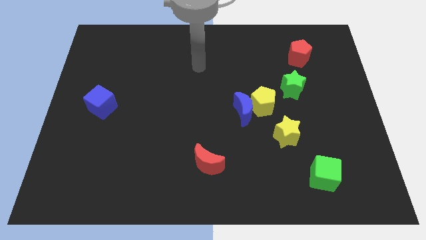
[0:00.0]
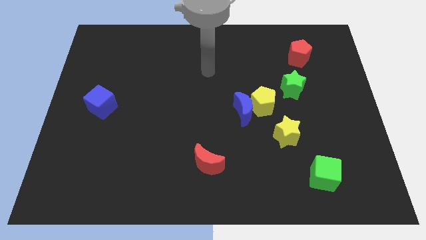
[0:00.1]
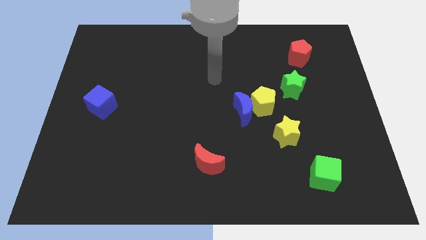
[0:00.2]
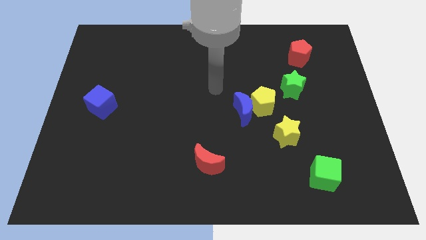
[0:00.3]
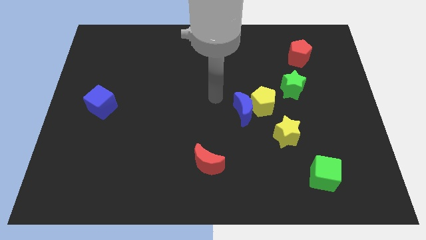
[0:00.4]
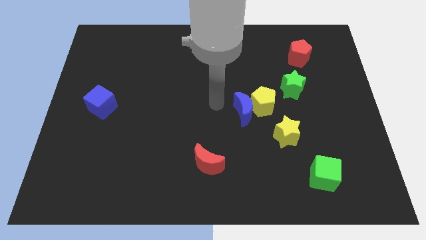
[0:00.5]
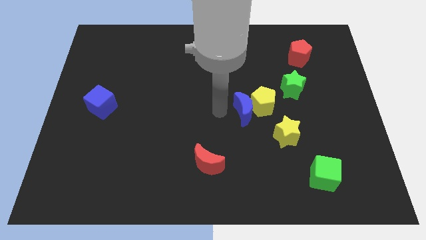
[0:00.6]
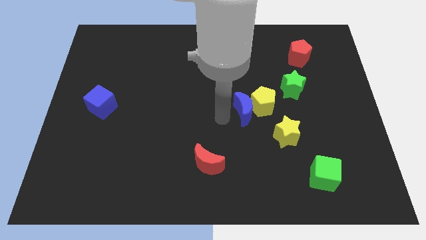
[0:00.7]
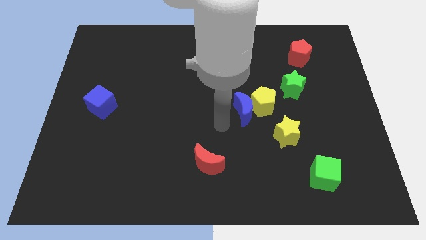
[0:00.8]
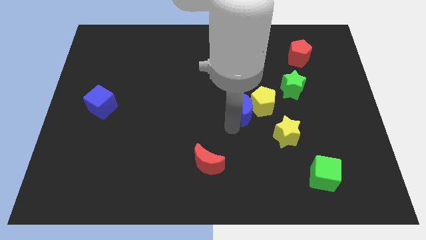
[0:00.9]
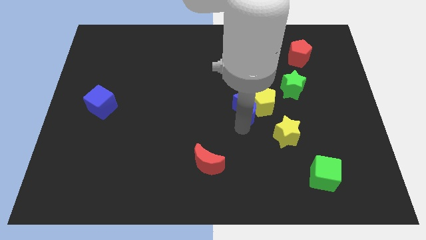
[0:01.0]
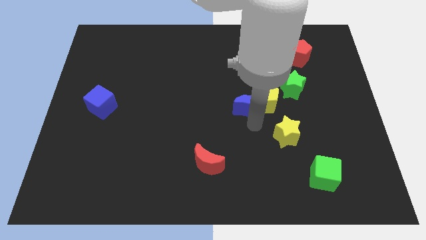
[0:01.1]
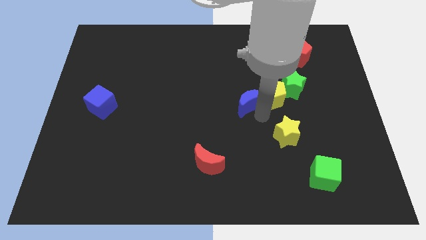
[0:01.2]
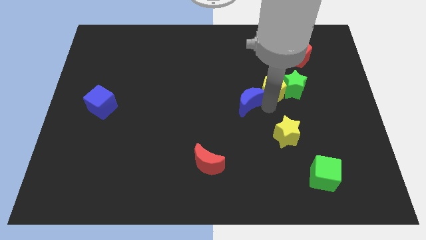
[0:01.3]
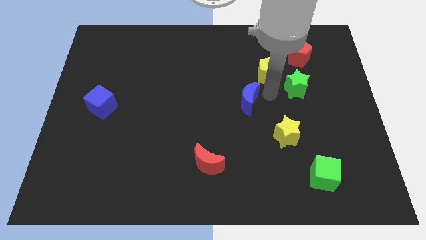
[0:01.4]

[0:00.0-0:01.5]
move the blue moon away from the yellow pentagon

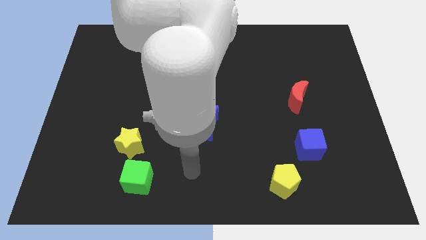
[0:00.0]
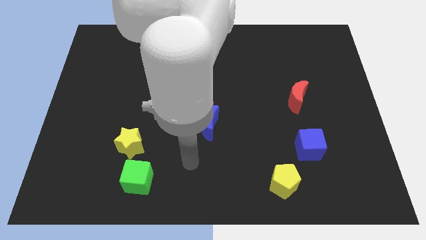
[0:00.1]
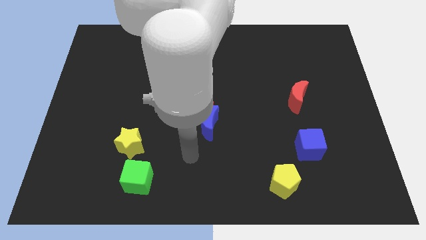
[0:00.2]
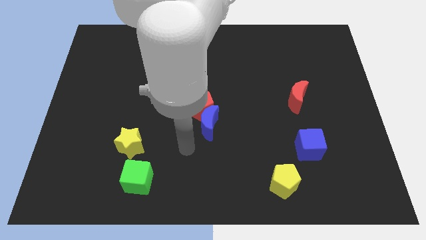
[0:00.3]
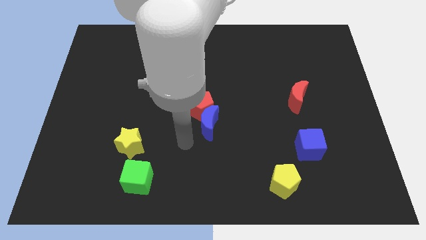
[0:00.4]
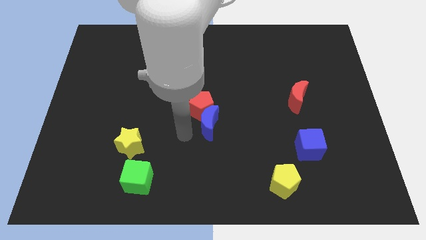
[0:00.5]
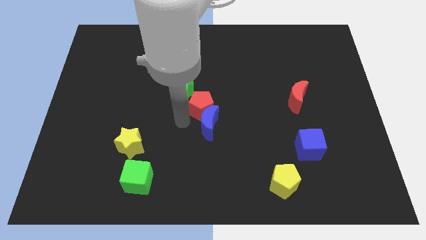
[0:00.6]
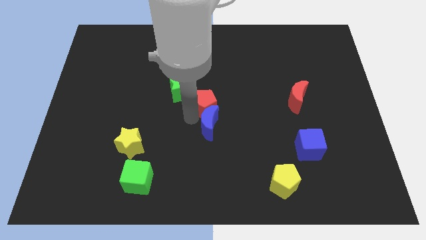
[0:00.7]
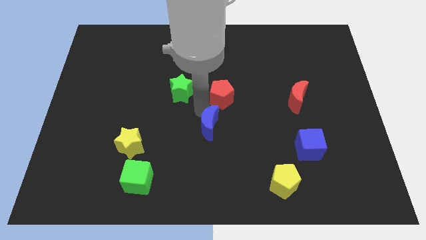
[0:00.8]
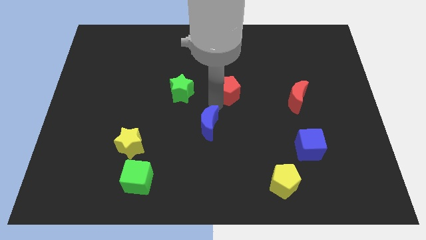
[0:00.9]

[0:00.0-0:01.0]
separate the blue moon from the red pentagon

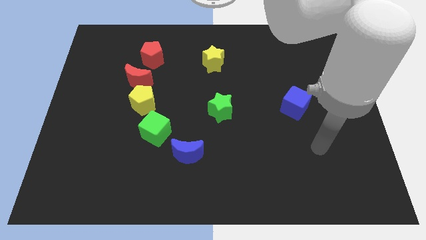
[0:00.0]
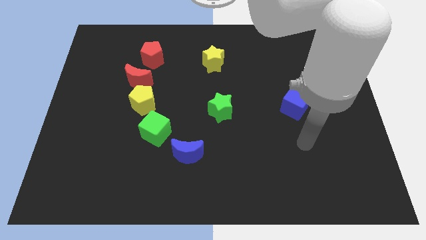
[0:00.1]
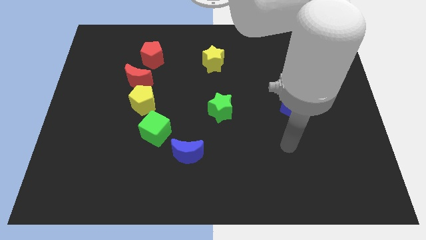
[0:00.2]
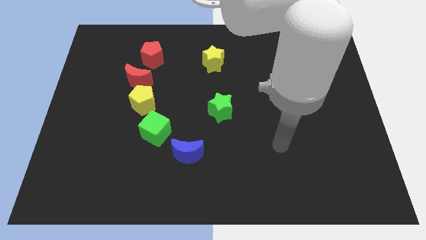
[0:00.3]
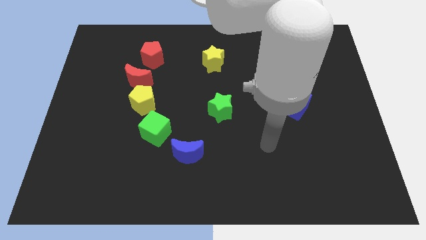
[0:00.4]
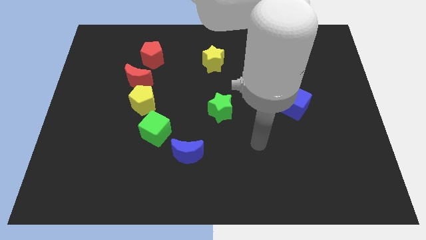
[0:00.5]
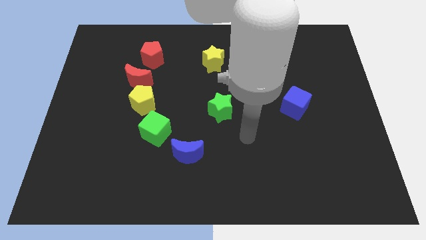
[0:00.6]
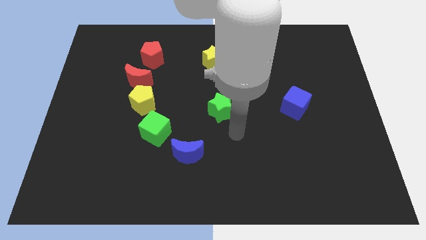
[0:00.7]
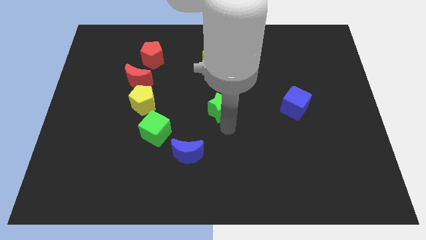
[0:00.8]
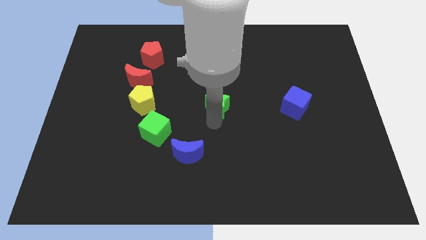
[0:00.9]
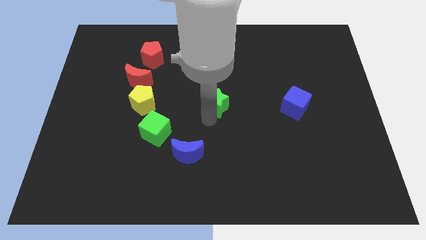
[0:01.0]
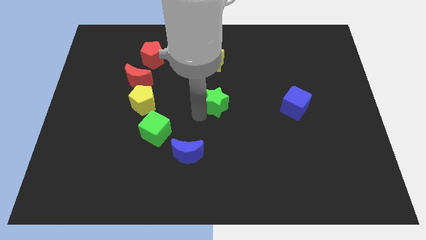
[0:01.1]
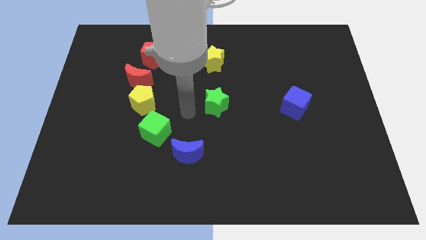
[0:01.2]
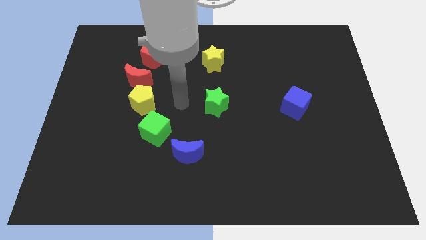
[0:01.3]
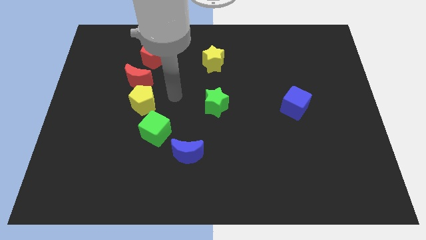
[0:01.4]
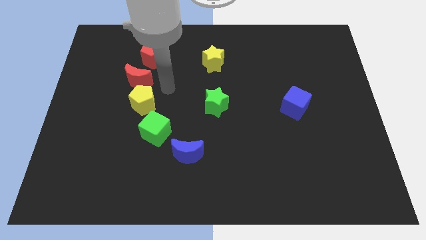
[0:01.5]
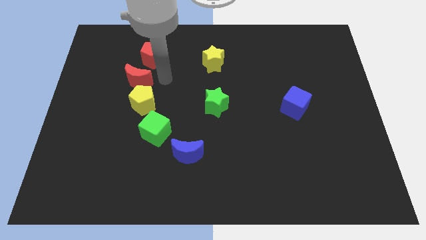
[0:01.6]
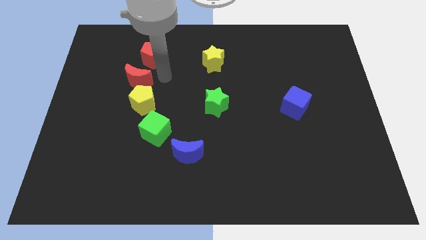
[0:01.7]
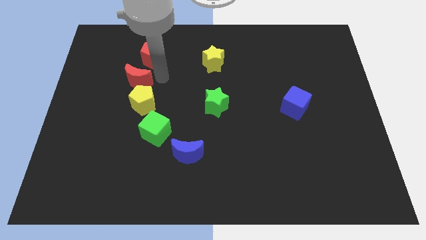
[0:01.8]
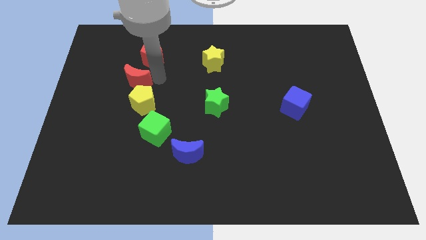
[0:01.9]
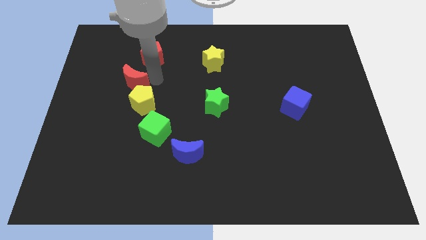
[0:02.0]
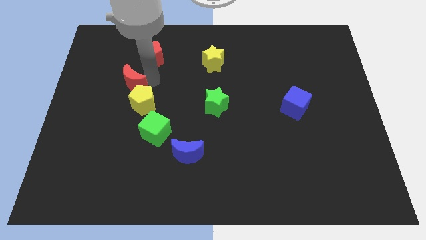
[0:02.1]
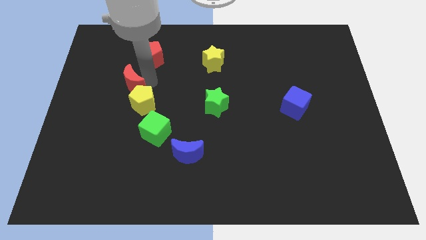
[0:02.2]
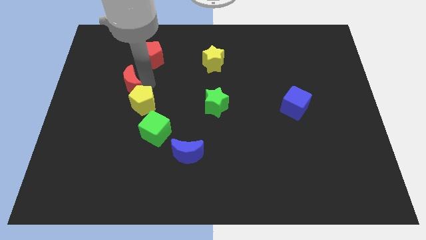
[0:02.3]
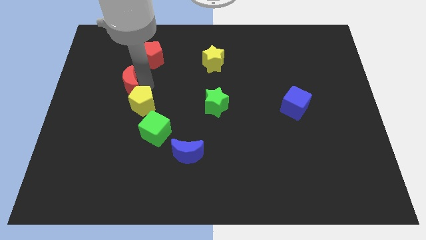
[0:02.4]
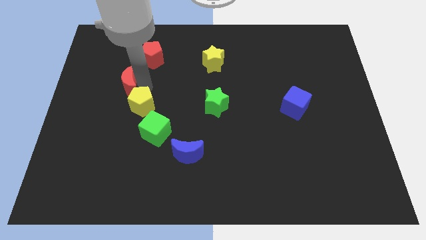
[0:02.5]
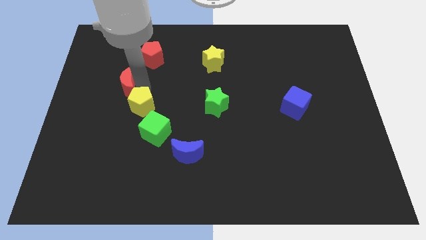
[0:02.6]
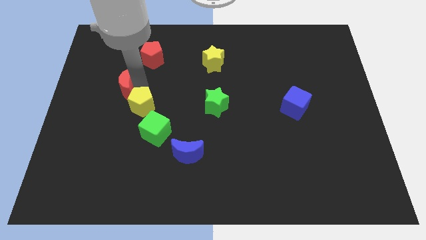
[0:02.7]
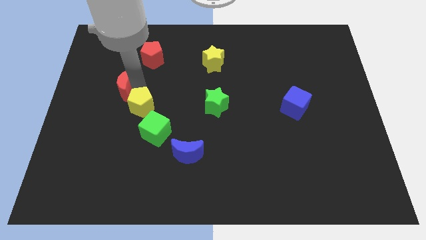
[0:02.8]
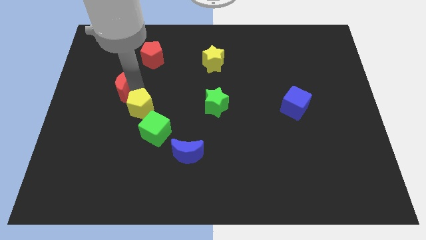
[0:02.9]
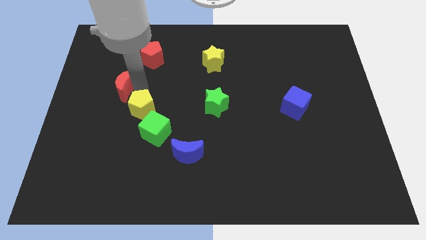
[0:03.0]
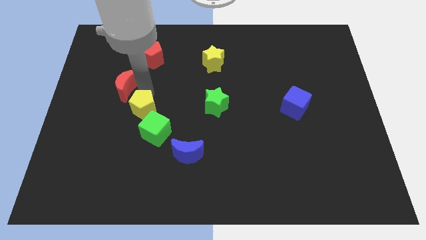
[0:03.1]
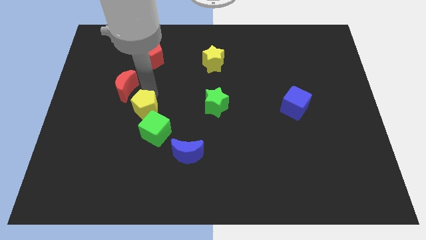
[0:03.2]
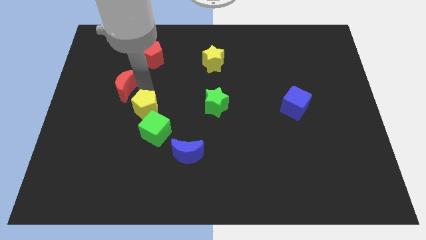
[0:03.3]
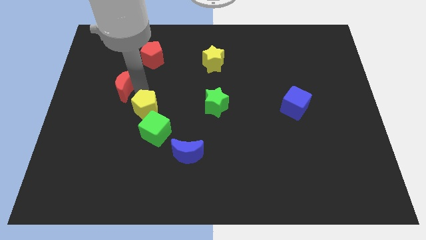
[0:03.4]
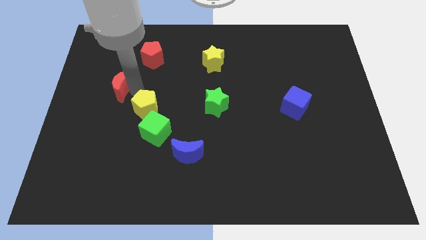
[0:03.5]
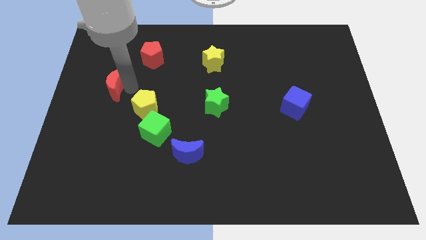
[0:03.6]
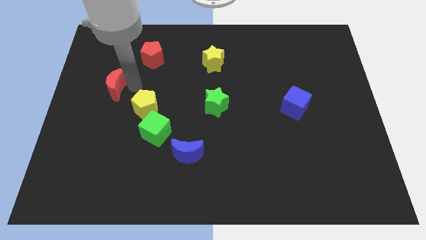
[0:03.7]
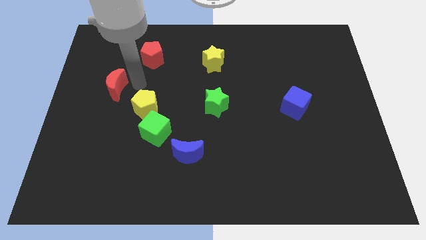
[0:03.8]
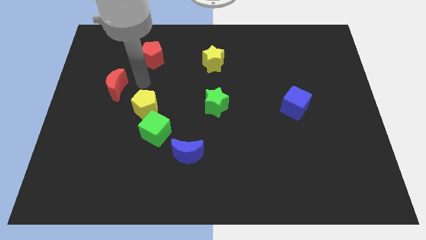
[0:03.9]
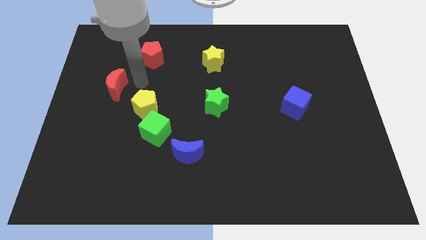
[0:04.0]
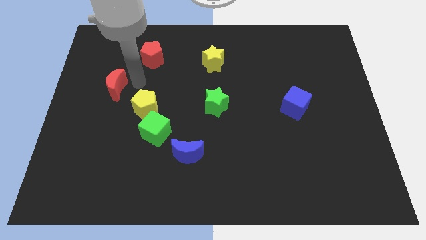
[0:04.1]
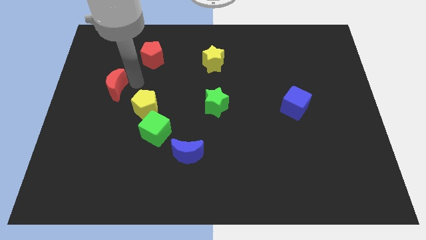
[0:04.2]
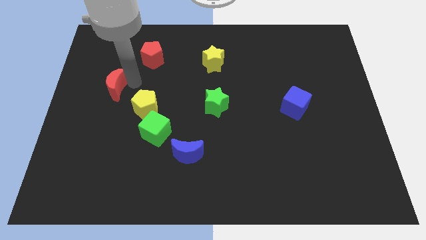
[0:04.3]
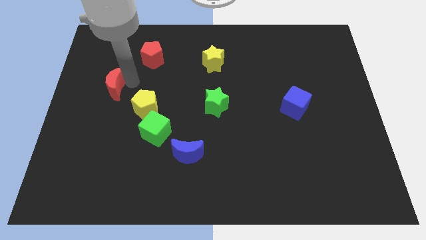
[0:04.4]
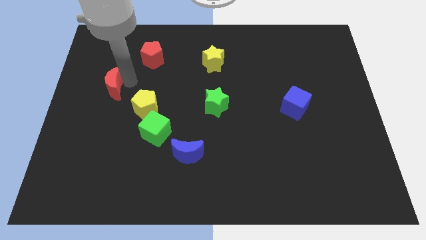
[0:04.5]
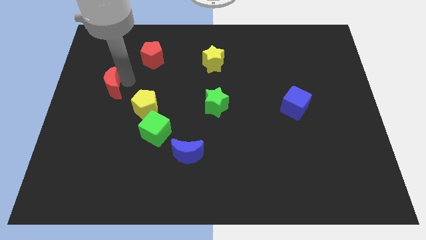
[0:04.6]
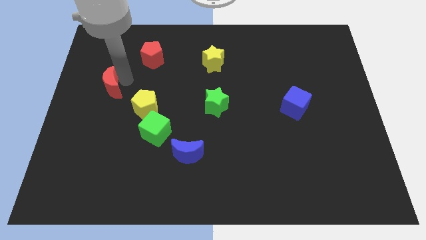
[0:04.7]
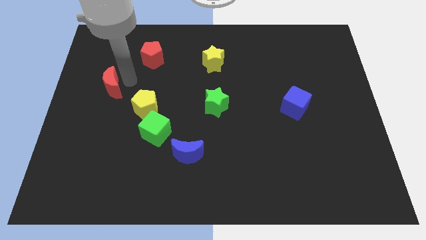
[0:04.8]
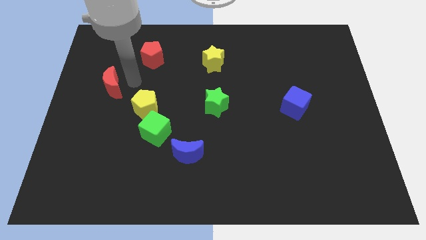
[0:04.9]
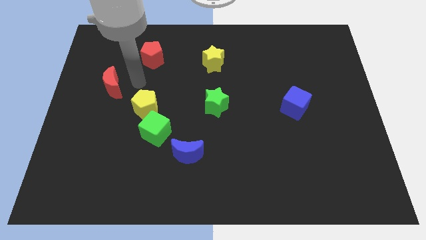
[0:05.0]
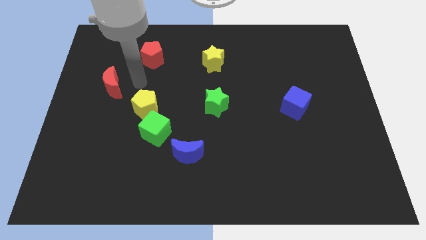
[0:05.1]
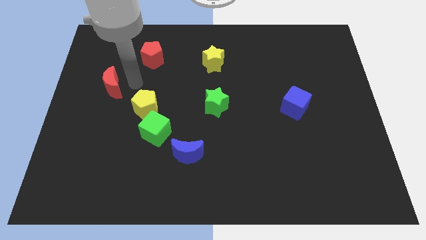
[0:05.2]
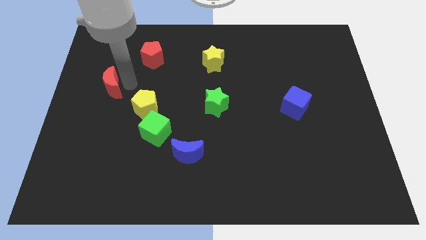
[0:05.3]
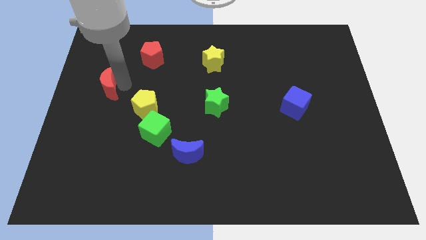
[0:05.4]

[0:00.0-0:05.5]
move the red moon away from the yellow pentagon and red pentagon

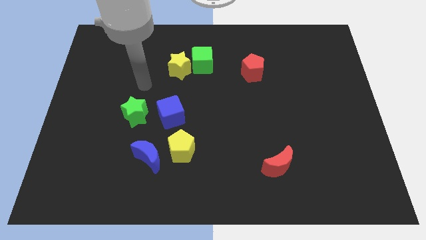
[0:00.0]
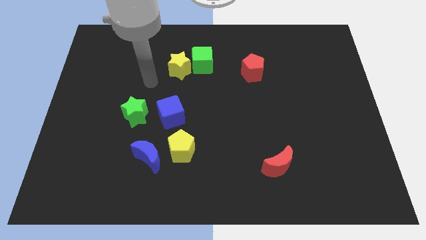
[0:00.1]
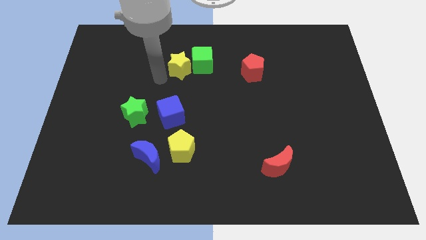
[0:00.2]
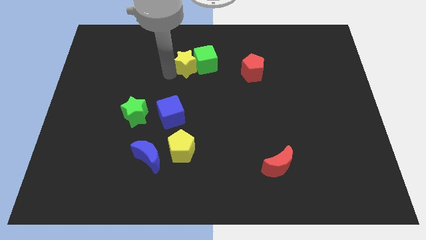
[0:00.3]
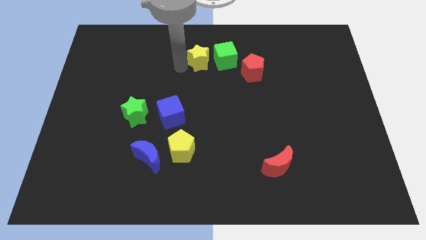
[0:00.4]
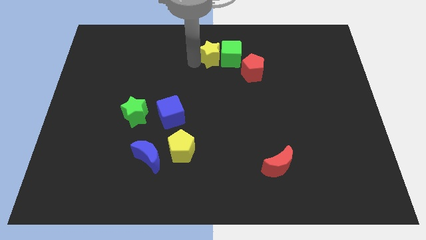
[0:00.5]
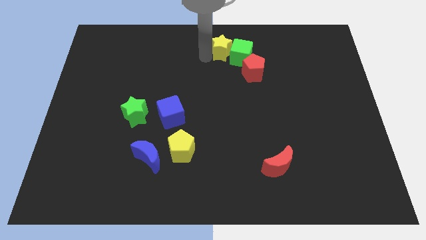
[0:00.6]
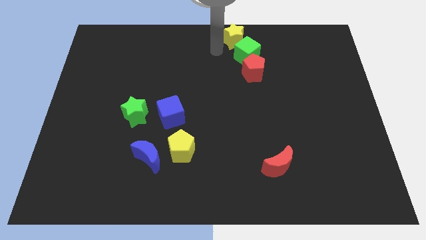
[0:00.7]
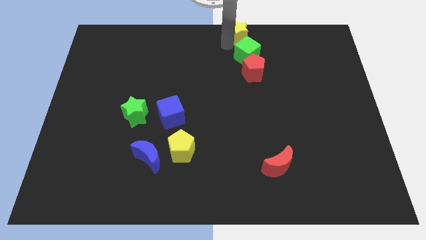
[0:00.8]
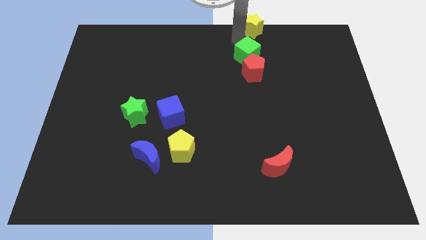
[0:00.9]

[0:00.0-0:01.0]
pull the green cube apart from the yellow star

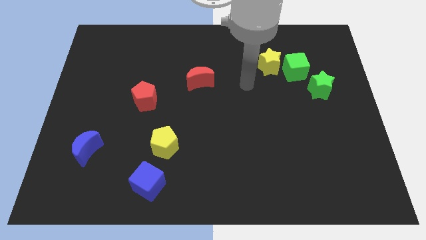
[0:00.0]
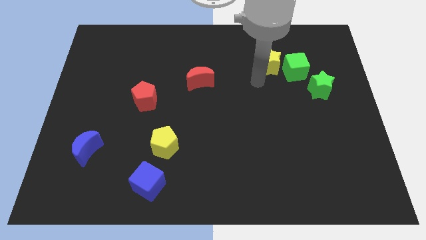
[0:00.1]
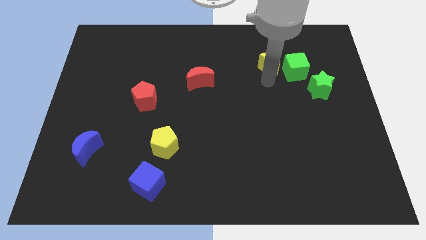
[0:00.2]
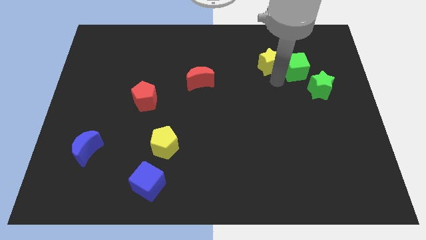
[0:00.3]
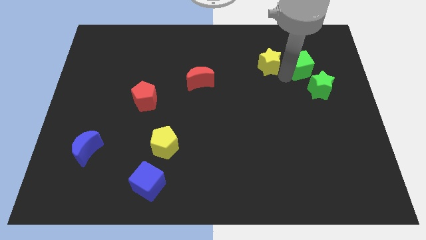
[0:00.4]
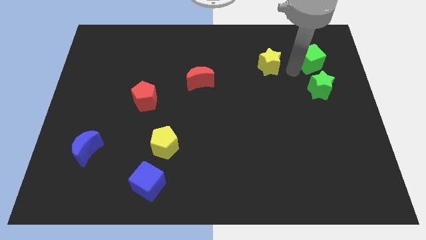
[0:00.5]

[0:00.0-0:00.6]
move the yellow star away from the green cube
